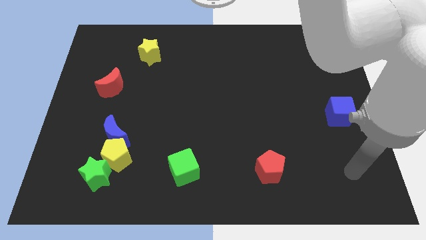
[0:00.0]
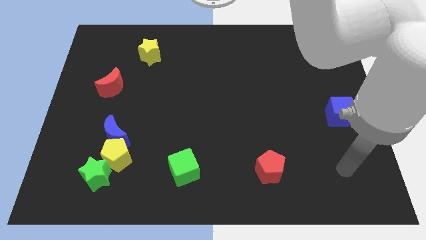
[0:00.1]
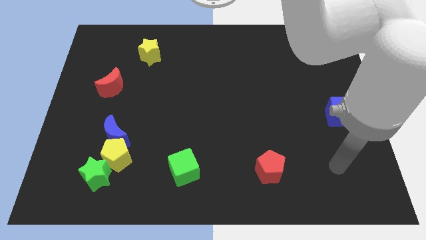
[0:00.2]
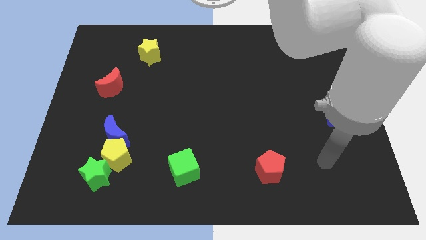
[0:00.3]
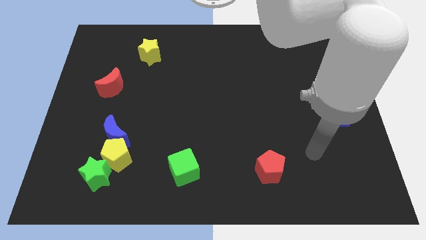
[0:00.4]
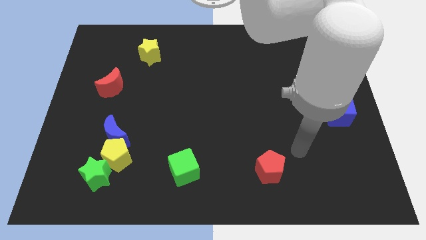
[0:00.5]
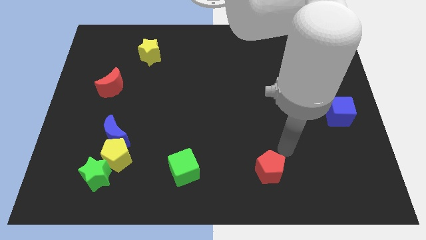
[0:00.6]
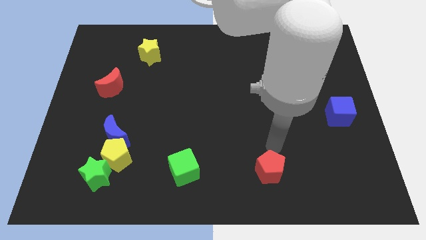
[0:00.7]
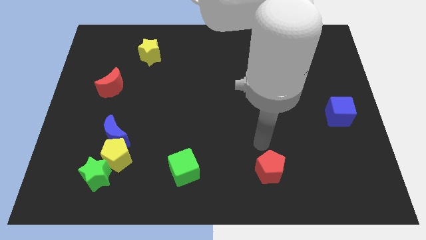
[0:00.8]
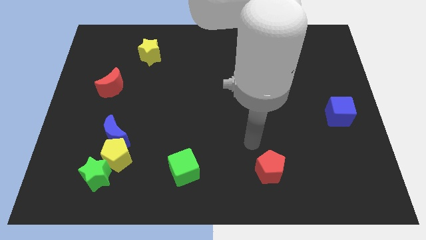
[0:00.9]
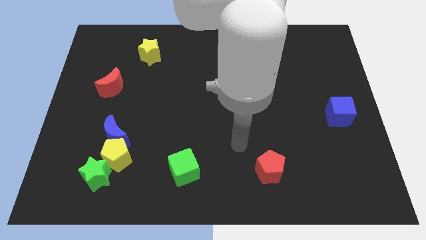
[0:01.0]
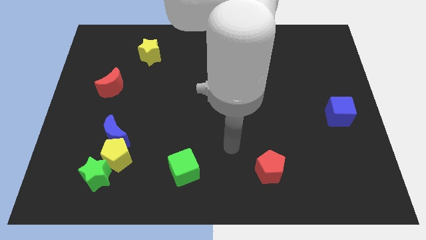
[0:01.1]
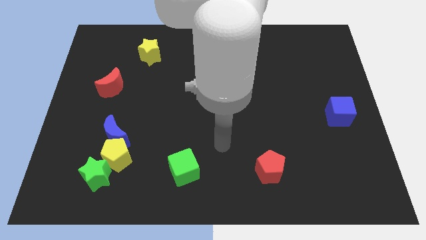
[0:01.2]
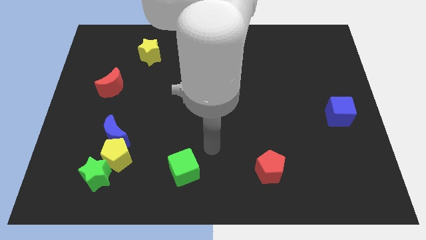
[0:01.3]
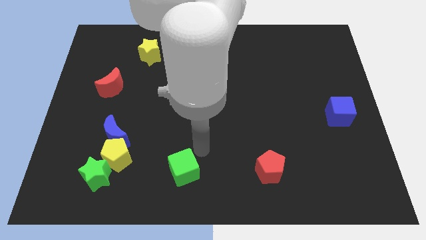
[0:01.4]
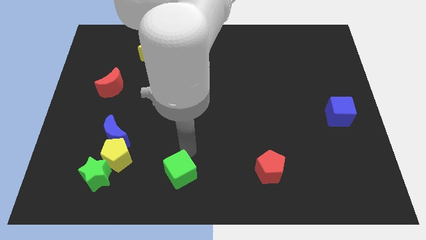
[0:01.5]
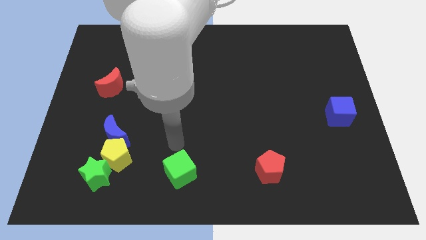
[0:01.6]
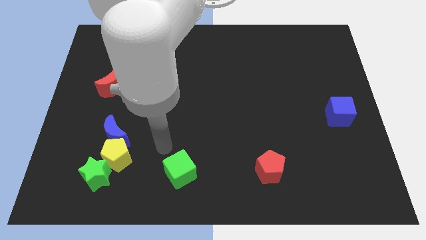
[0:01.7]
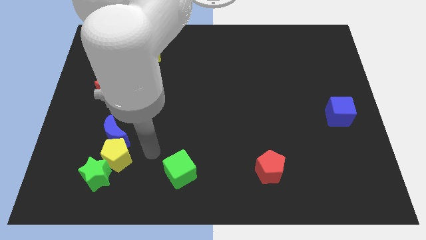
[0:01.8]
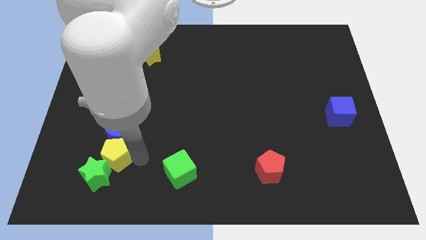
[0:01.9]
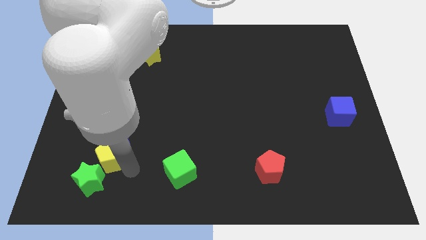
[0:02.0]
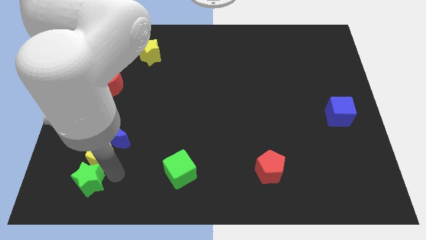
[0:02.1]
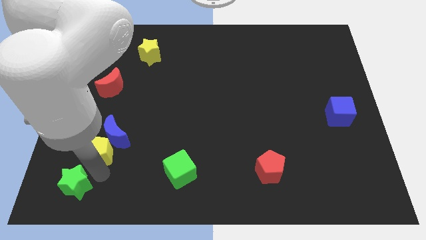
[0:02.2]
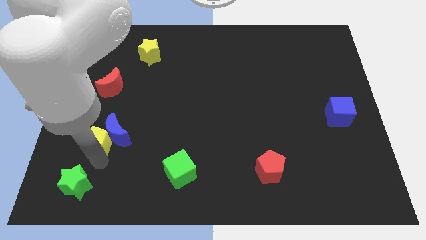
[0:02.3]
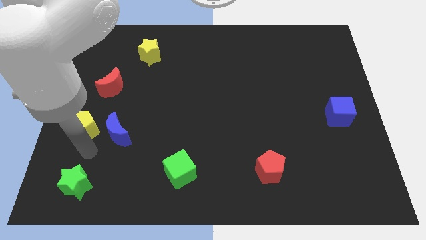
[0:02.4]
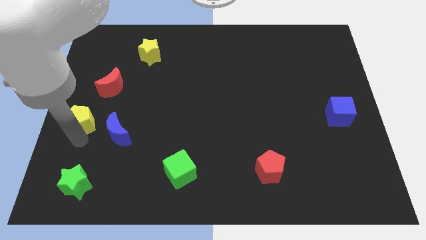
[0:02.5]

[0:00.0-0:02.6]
separate the yellow pentagon from the blue moon and green star

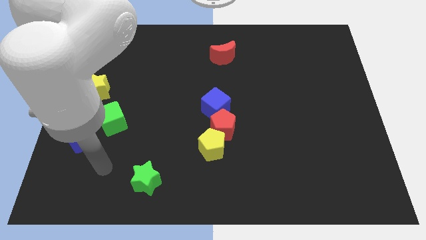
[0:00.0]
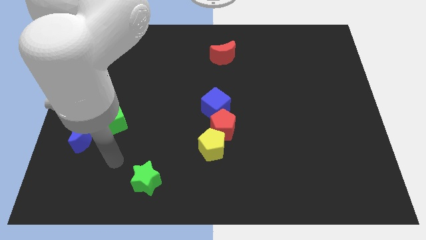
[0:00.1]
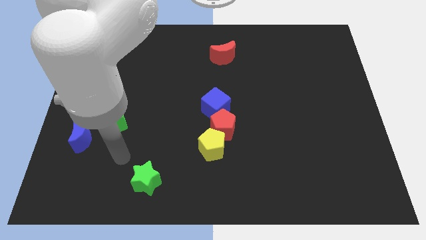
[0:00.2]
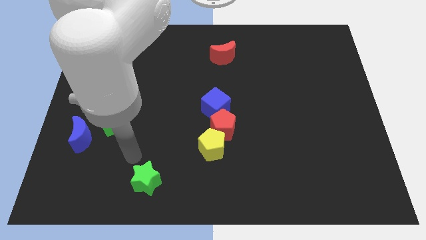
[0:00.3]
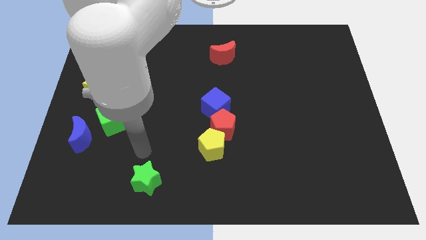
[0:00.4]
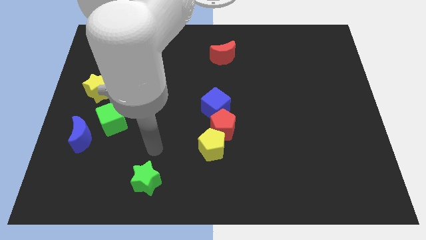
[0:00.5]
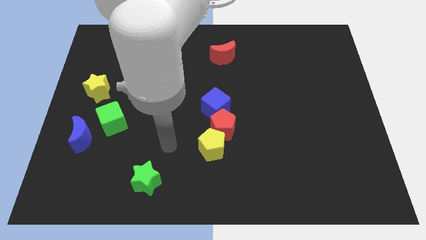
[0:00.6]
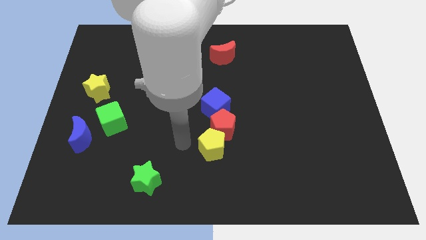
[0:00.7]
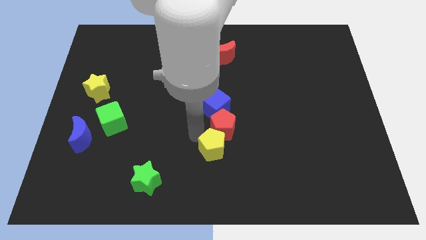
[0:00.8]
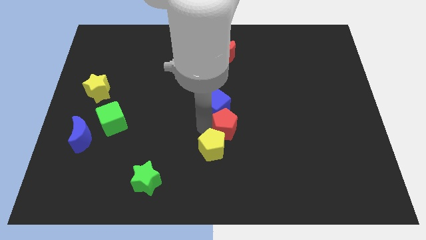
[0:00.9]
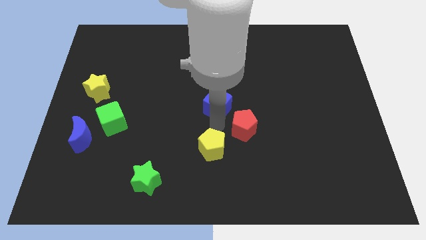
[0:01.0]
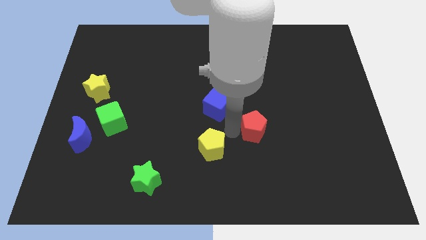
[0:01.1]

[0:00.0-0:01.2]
move the yellow pentagon away from the red pentagon

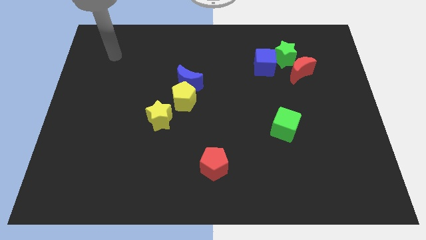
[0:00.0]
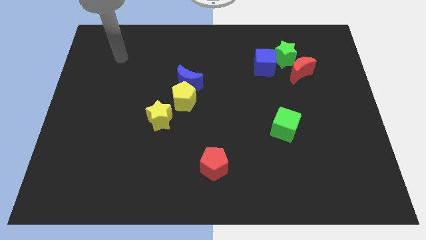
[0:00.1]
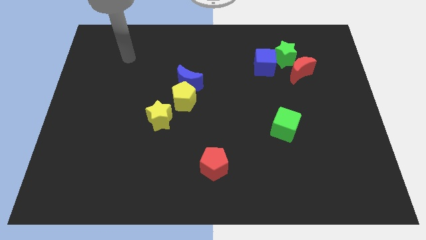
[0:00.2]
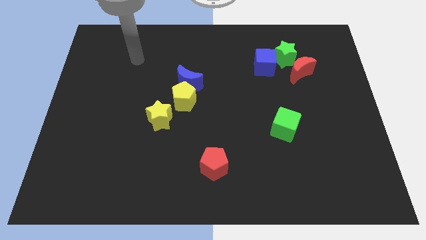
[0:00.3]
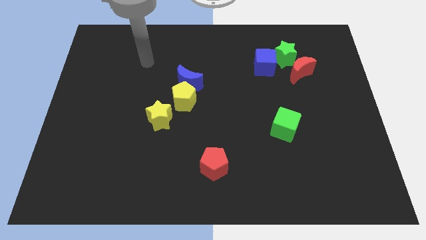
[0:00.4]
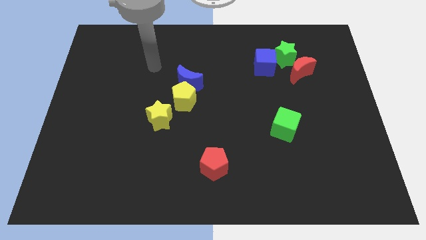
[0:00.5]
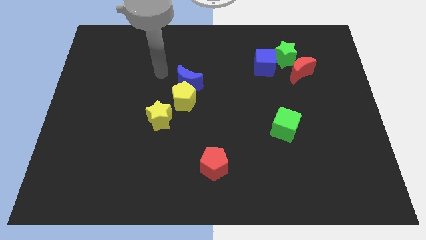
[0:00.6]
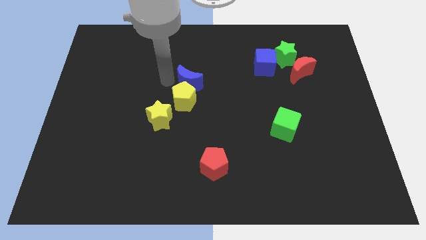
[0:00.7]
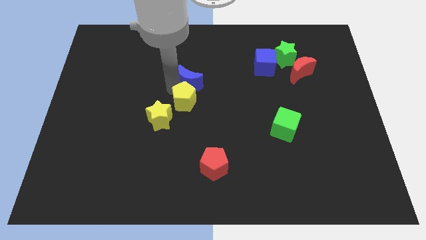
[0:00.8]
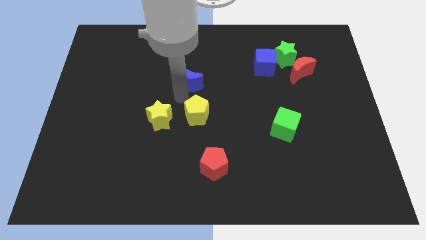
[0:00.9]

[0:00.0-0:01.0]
move the blue moon away from the yellow pentagon

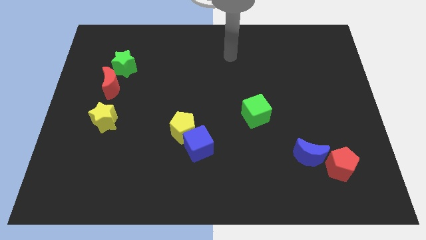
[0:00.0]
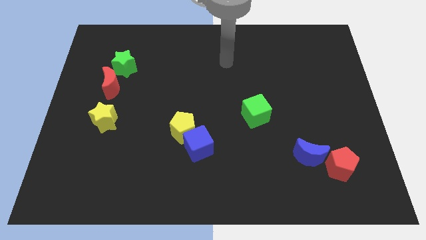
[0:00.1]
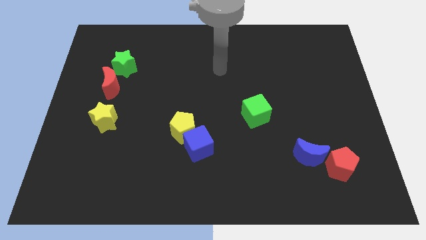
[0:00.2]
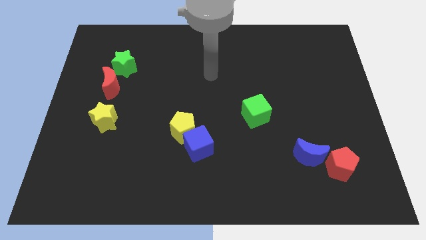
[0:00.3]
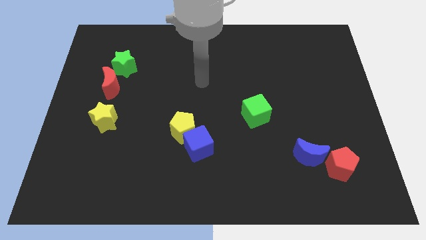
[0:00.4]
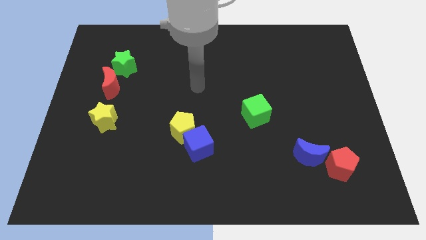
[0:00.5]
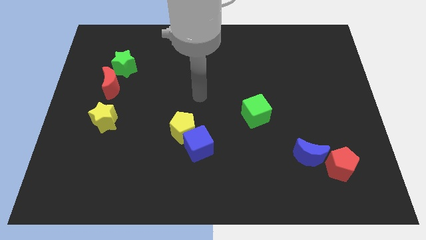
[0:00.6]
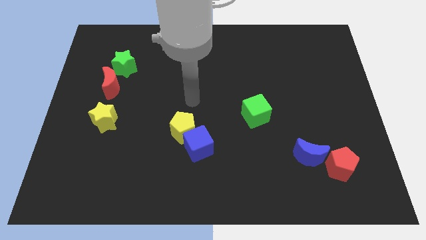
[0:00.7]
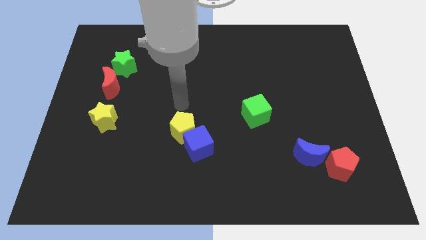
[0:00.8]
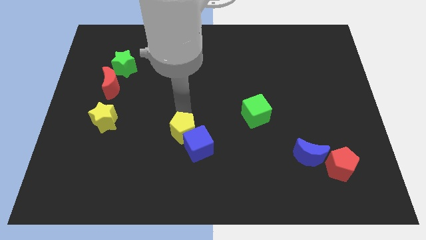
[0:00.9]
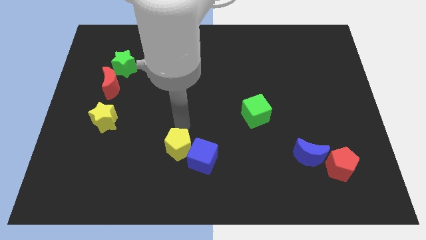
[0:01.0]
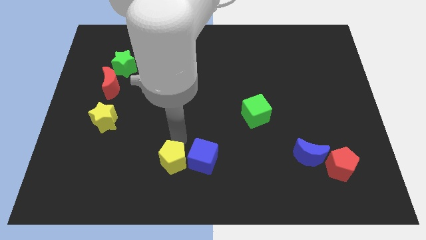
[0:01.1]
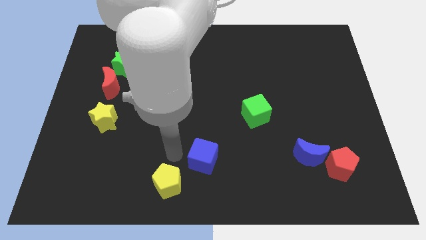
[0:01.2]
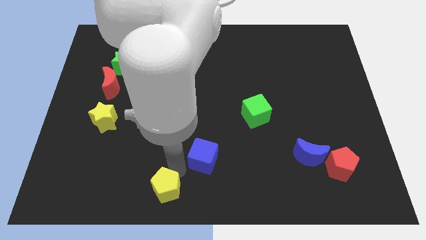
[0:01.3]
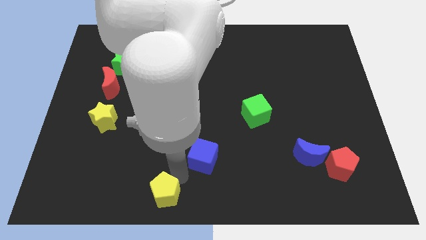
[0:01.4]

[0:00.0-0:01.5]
separate the blue cube from the yellow pentagon

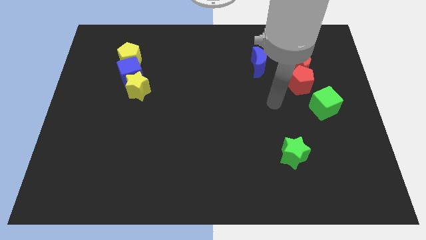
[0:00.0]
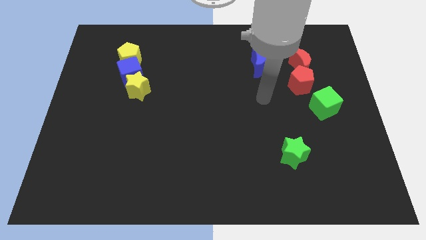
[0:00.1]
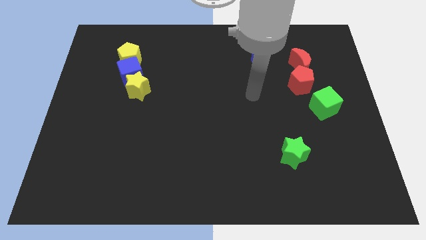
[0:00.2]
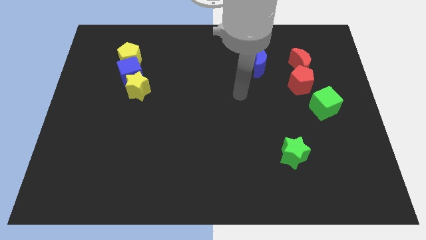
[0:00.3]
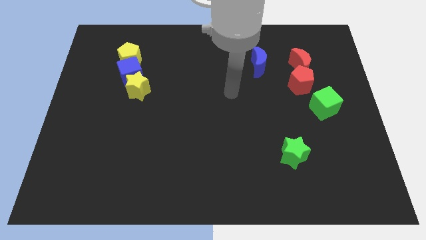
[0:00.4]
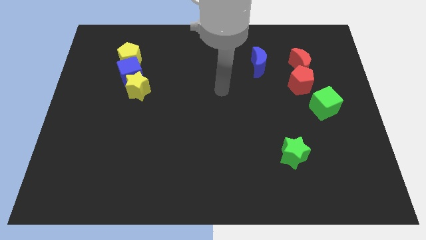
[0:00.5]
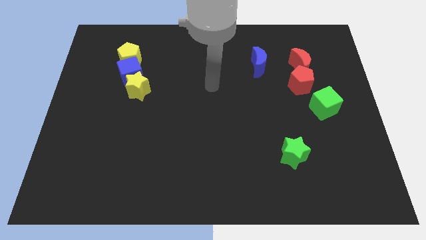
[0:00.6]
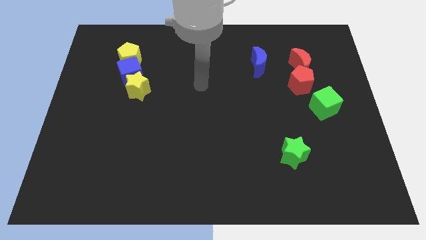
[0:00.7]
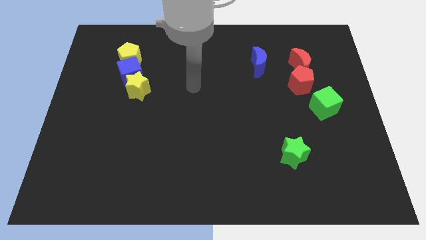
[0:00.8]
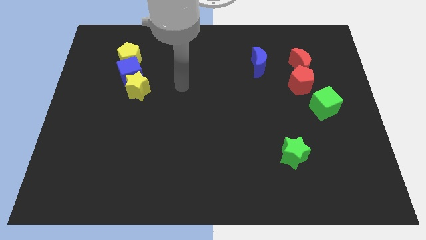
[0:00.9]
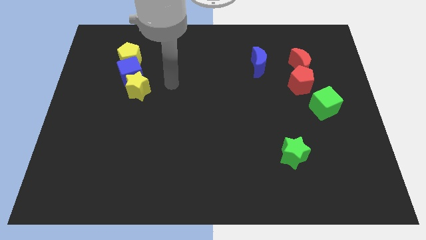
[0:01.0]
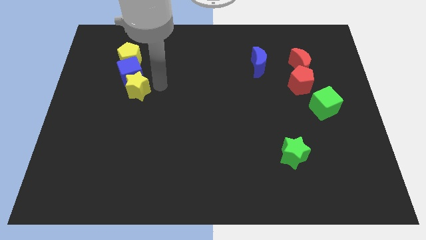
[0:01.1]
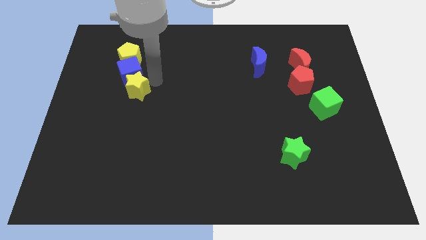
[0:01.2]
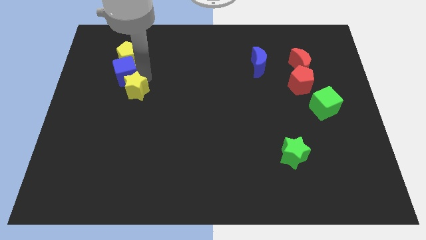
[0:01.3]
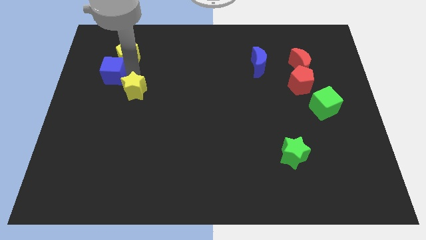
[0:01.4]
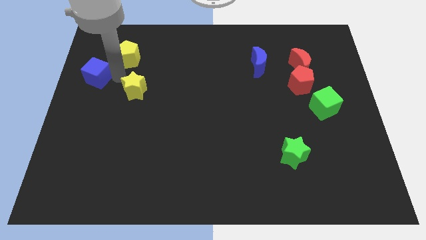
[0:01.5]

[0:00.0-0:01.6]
separate the yellow star from the blue cube

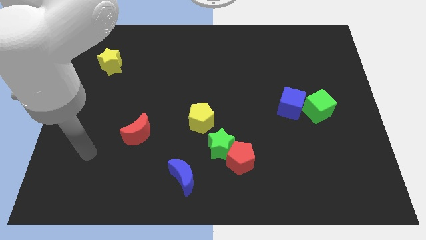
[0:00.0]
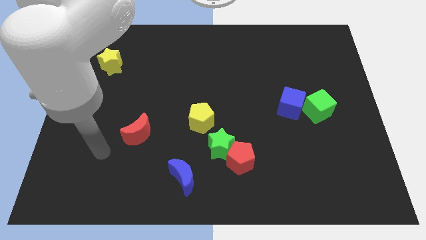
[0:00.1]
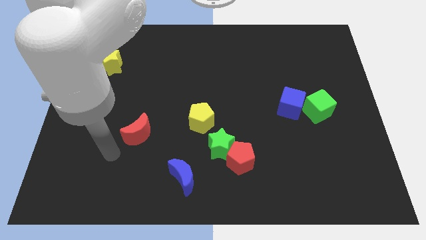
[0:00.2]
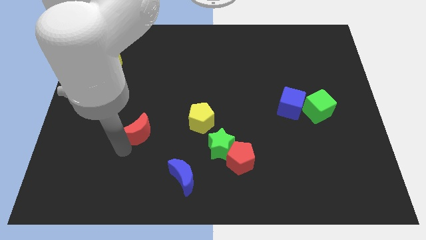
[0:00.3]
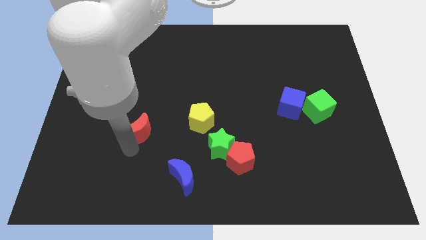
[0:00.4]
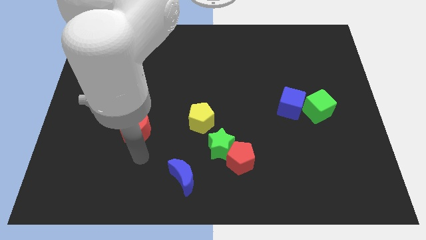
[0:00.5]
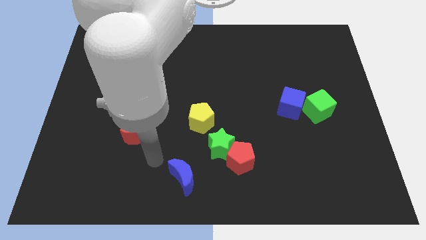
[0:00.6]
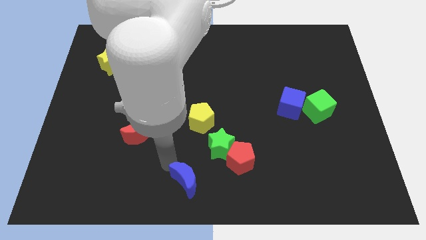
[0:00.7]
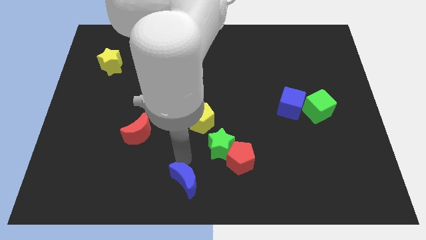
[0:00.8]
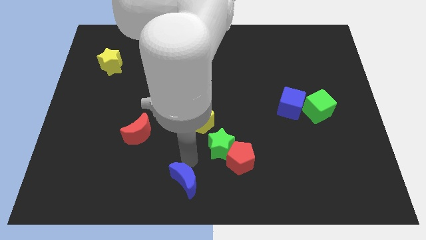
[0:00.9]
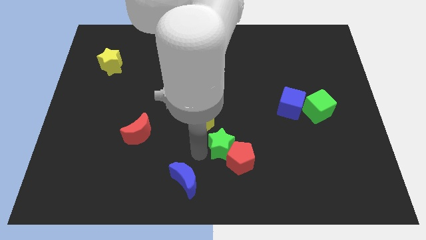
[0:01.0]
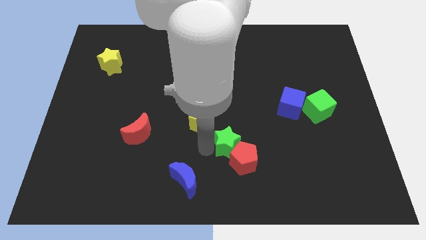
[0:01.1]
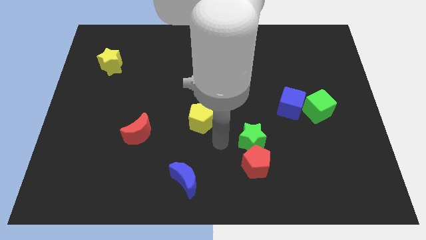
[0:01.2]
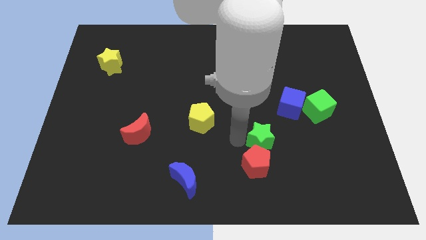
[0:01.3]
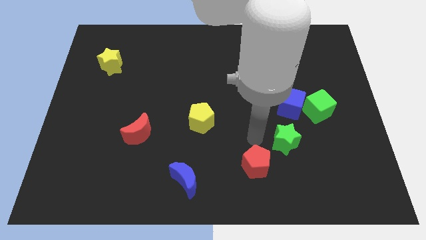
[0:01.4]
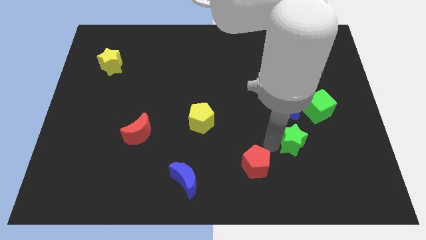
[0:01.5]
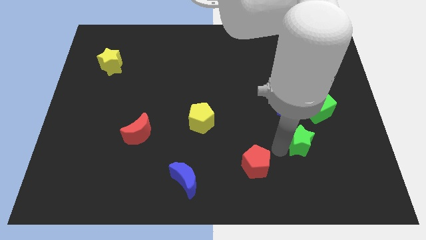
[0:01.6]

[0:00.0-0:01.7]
move the red pentagon away from the green star
